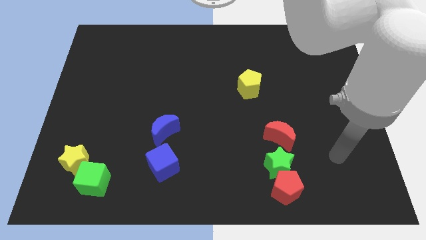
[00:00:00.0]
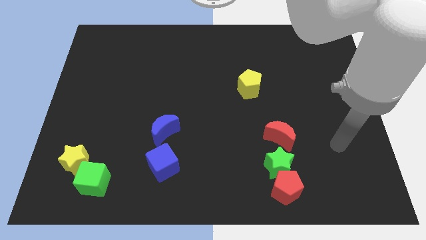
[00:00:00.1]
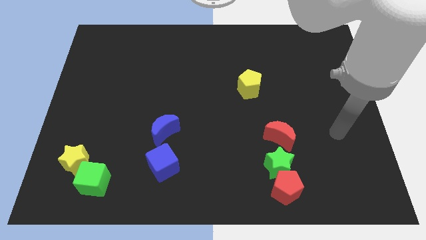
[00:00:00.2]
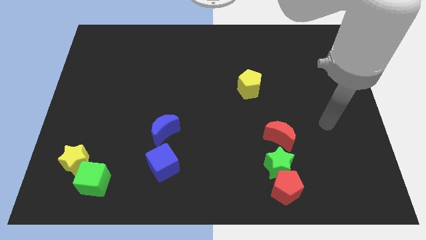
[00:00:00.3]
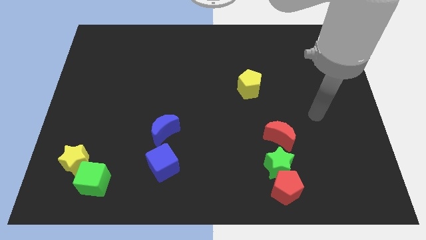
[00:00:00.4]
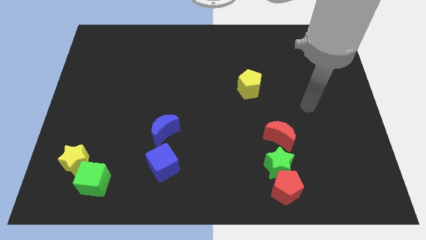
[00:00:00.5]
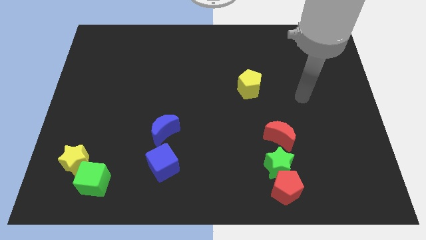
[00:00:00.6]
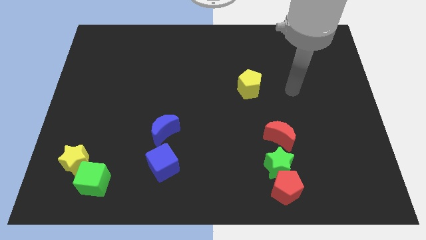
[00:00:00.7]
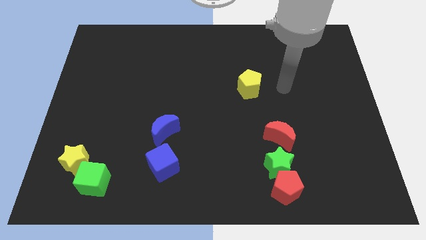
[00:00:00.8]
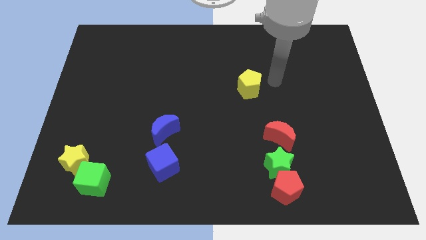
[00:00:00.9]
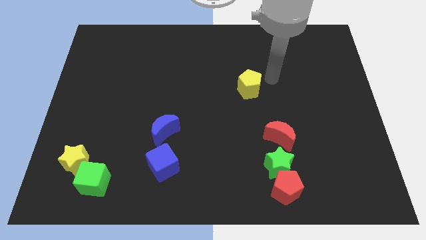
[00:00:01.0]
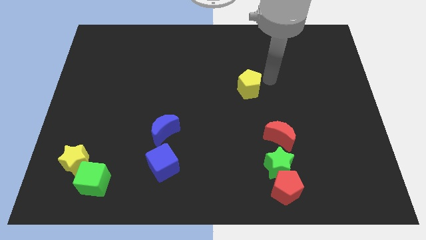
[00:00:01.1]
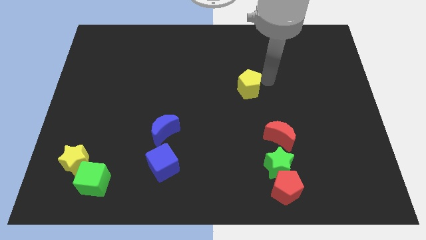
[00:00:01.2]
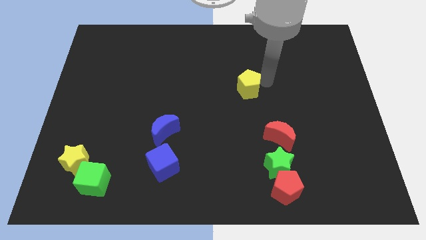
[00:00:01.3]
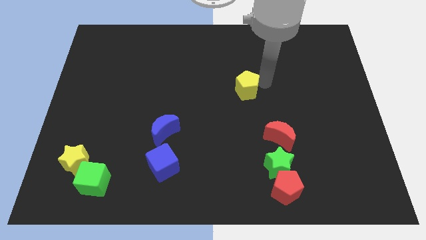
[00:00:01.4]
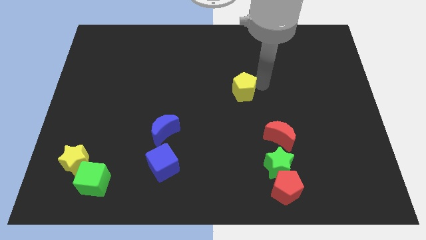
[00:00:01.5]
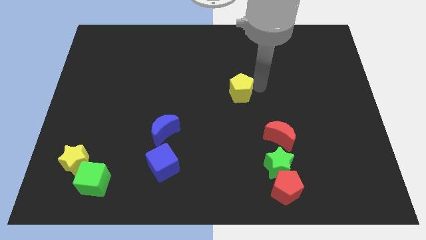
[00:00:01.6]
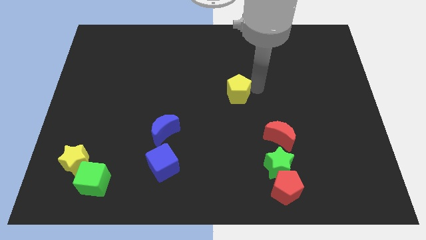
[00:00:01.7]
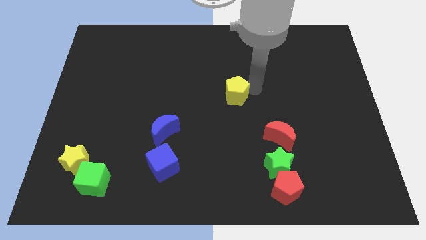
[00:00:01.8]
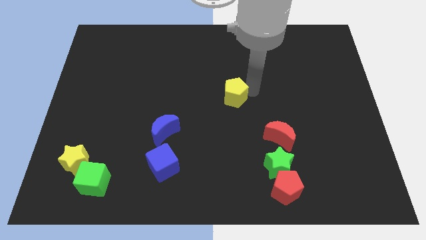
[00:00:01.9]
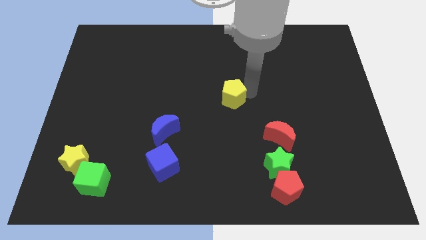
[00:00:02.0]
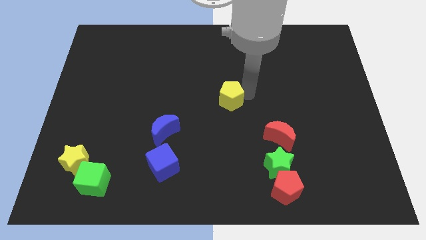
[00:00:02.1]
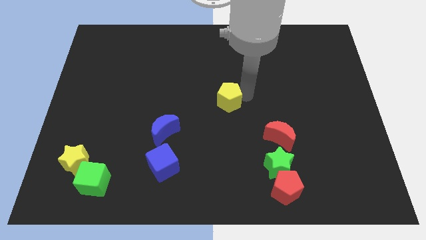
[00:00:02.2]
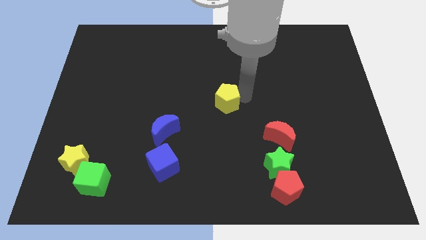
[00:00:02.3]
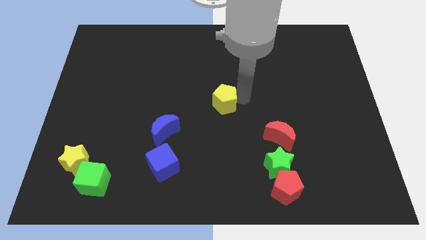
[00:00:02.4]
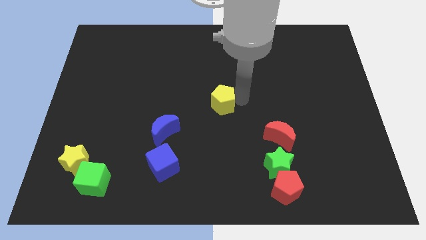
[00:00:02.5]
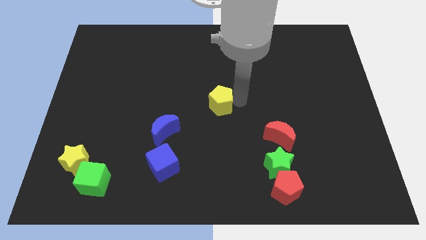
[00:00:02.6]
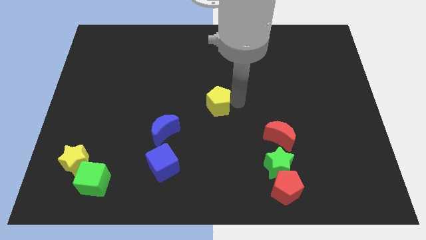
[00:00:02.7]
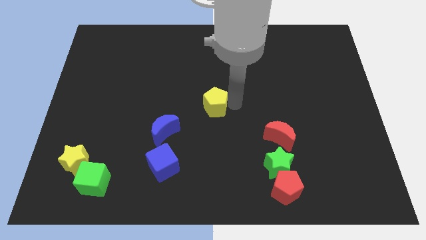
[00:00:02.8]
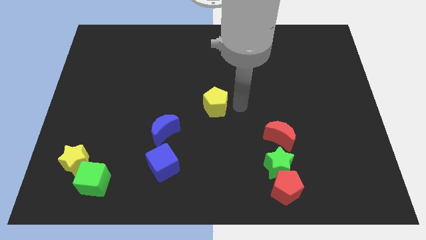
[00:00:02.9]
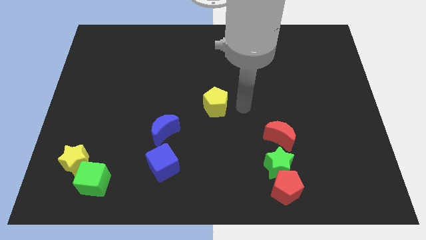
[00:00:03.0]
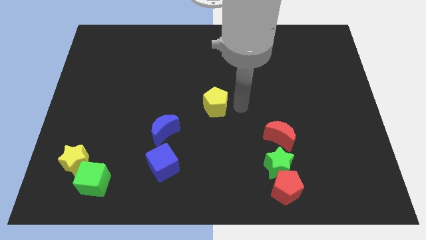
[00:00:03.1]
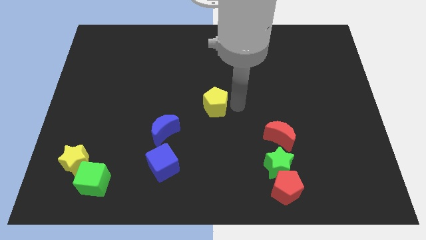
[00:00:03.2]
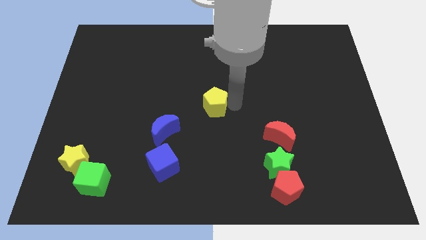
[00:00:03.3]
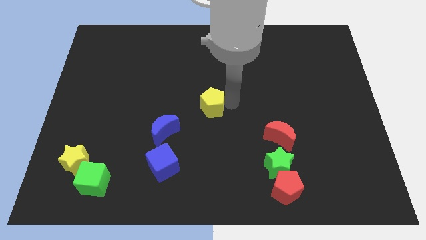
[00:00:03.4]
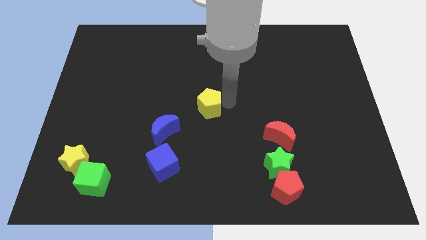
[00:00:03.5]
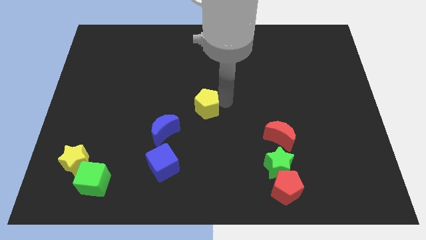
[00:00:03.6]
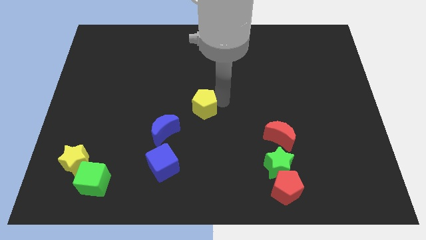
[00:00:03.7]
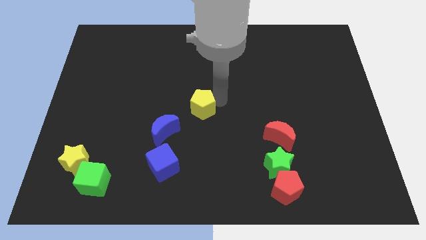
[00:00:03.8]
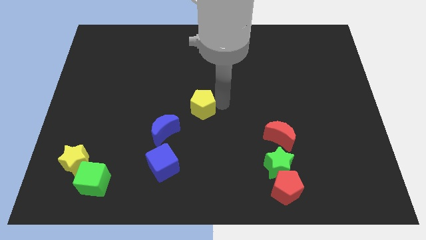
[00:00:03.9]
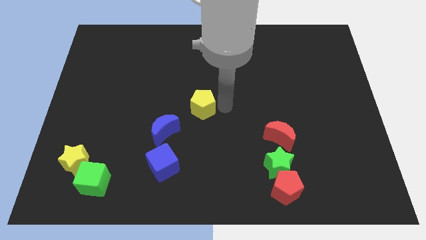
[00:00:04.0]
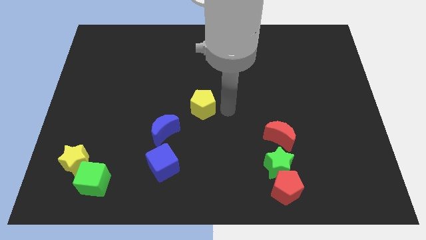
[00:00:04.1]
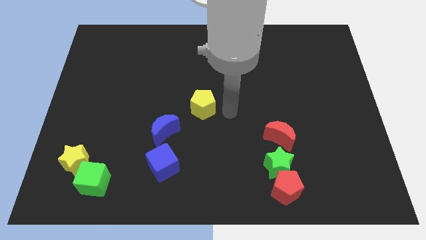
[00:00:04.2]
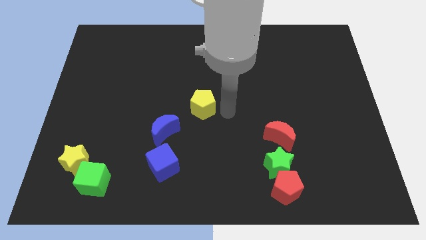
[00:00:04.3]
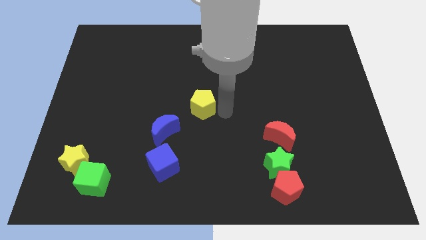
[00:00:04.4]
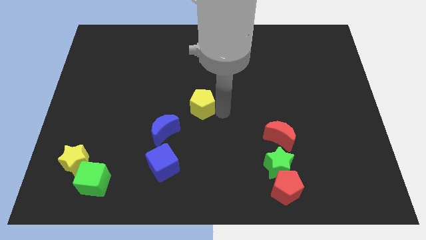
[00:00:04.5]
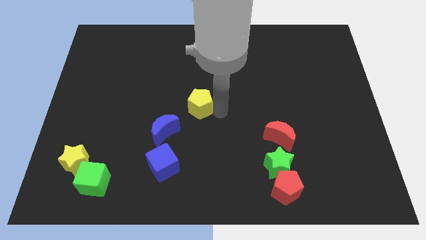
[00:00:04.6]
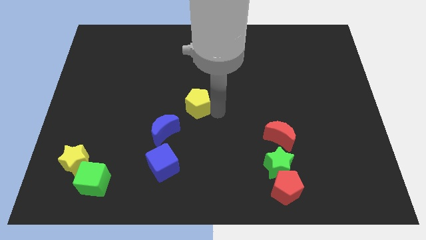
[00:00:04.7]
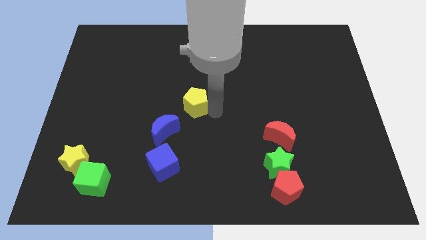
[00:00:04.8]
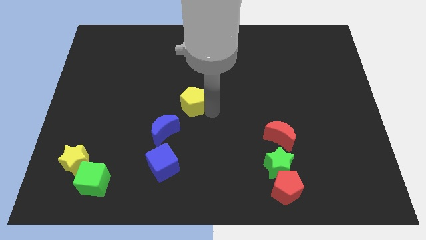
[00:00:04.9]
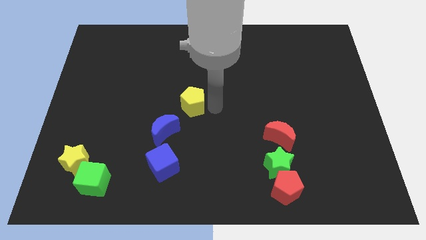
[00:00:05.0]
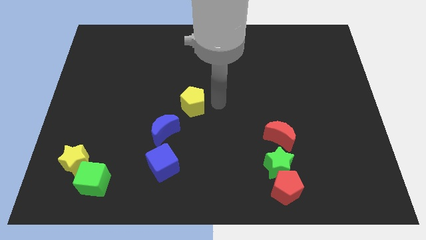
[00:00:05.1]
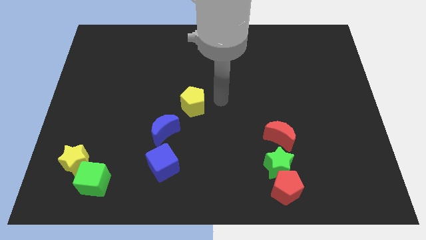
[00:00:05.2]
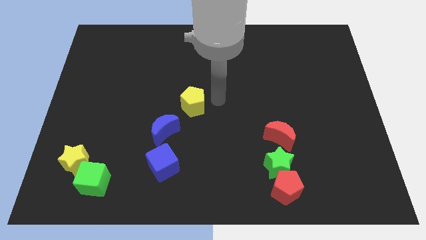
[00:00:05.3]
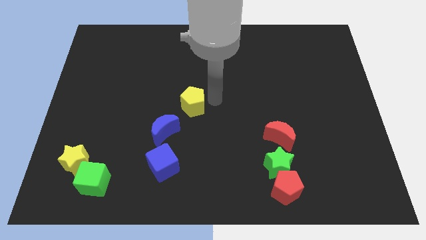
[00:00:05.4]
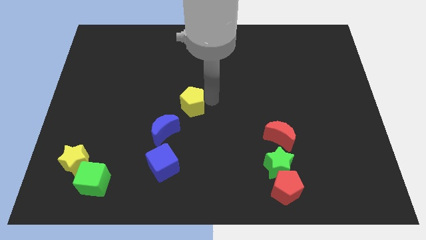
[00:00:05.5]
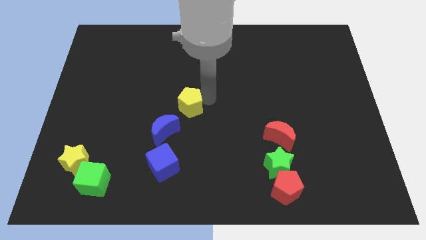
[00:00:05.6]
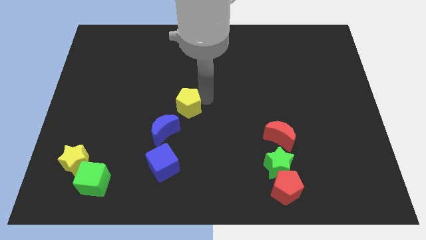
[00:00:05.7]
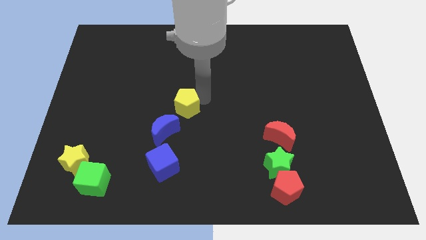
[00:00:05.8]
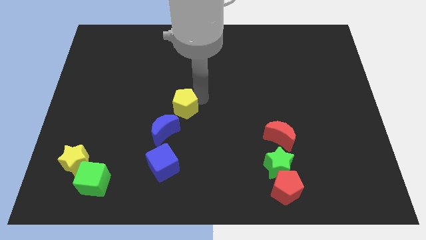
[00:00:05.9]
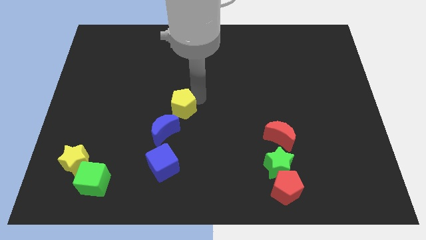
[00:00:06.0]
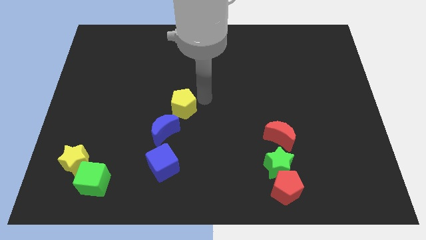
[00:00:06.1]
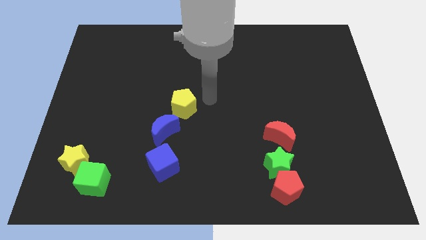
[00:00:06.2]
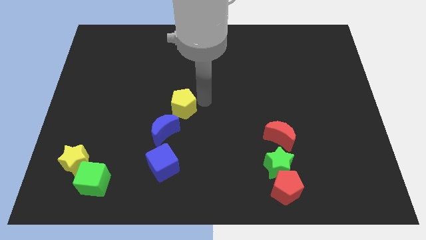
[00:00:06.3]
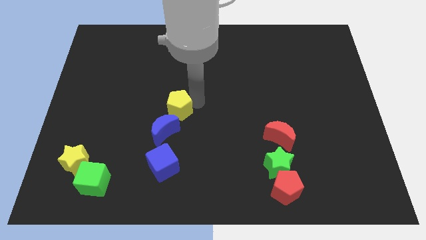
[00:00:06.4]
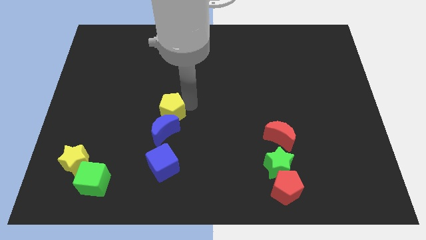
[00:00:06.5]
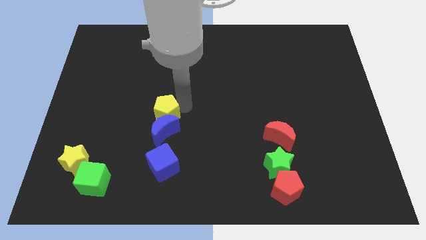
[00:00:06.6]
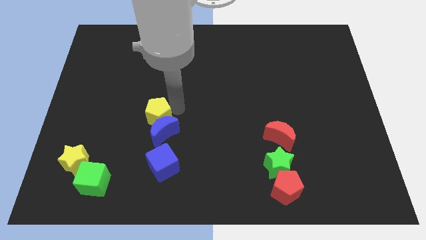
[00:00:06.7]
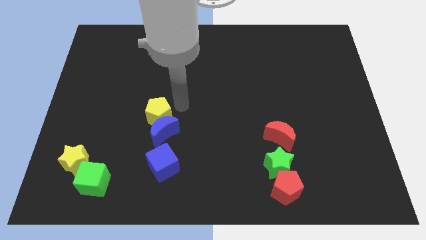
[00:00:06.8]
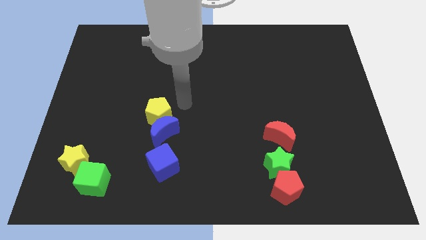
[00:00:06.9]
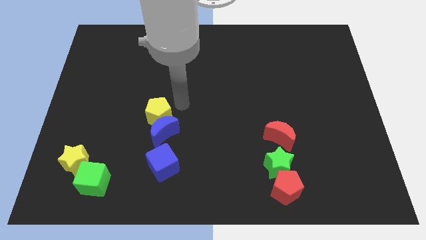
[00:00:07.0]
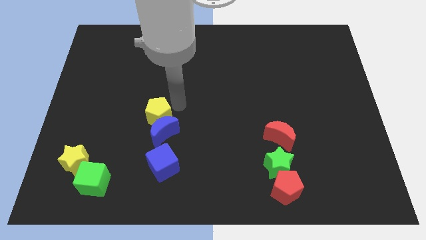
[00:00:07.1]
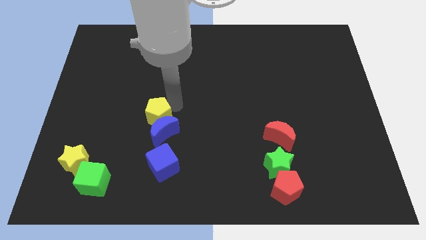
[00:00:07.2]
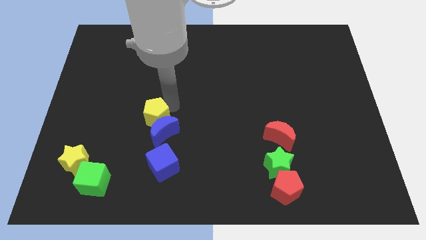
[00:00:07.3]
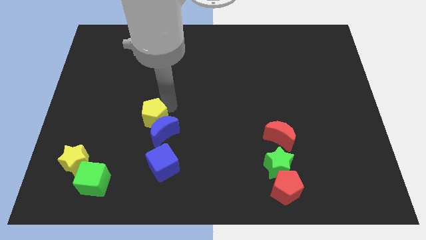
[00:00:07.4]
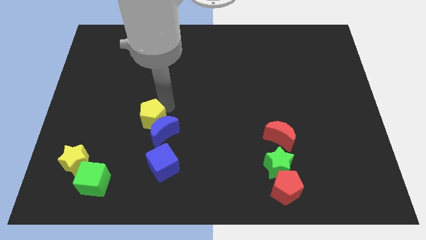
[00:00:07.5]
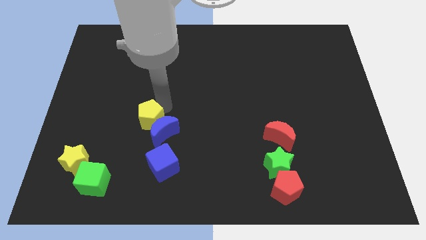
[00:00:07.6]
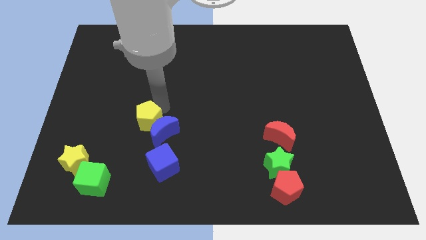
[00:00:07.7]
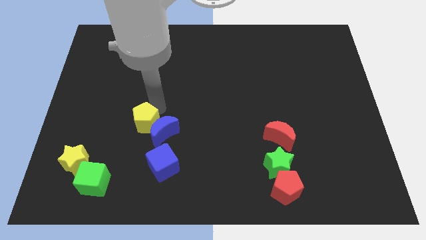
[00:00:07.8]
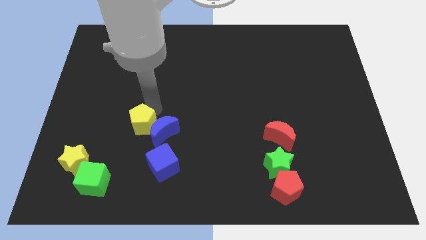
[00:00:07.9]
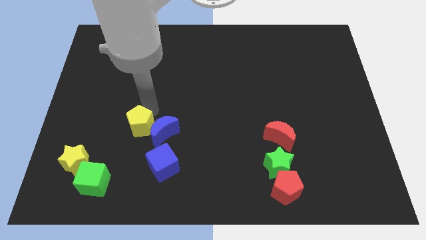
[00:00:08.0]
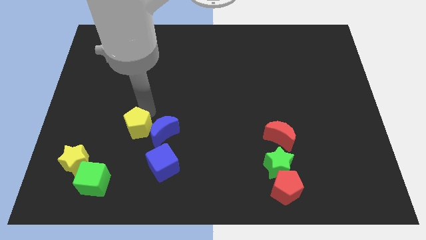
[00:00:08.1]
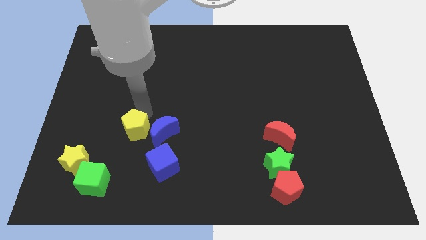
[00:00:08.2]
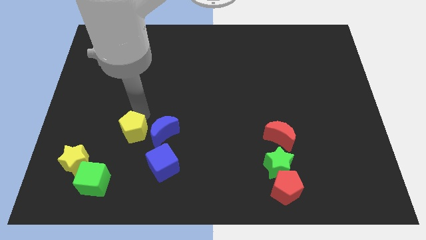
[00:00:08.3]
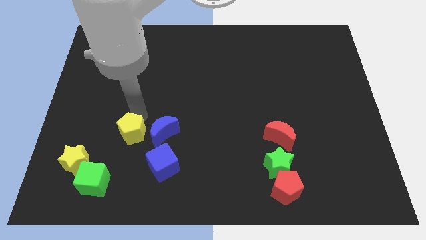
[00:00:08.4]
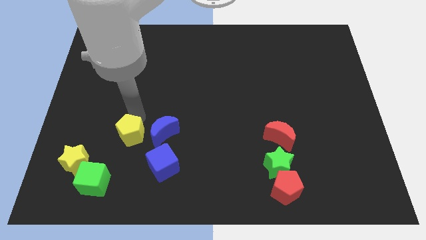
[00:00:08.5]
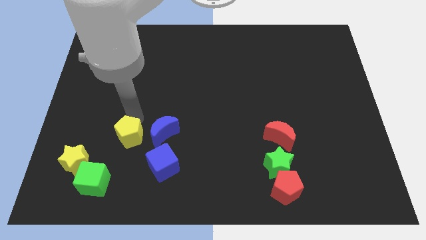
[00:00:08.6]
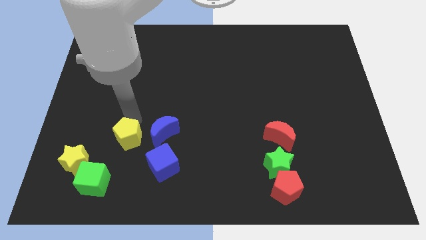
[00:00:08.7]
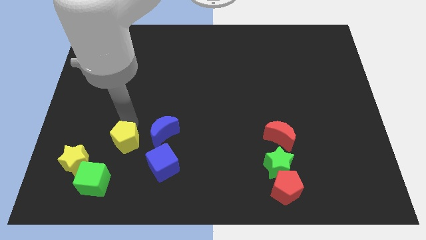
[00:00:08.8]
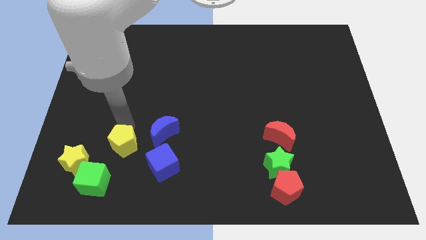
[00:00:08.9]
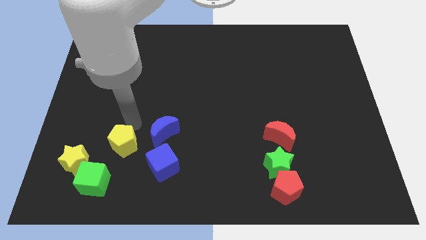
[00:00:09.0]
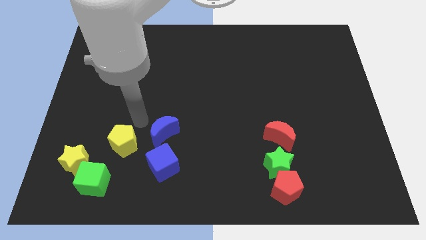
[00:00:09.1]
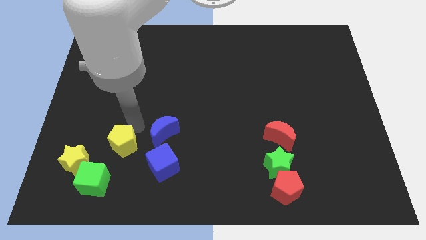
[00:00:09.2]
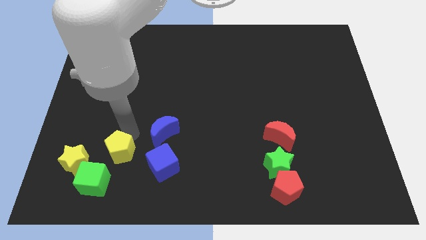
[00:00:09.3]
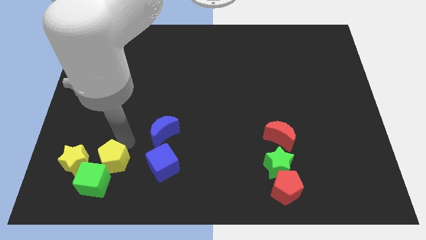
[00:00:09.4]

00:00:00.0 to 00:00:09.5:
slide the yellow pentagon to the green cube
